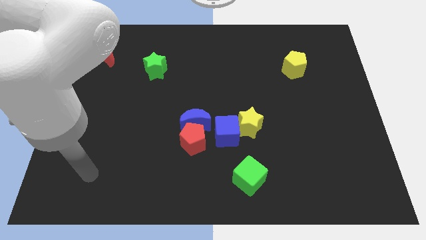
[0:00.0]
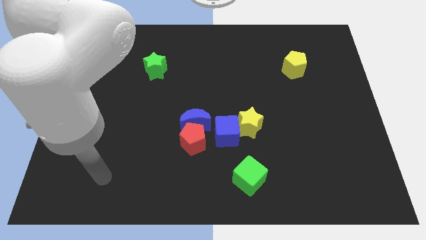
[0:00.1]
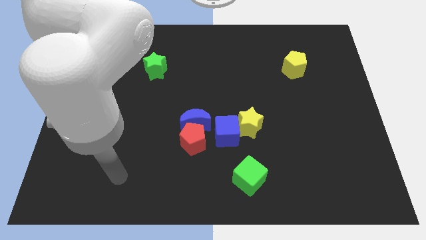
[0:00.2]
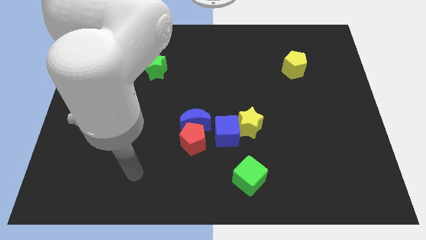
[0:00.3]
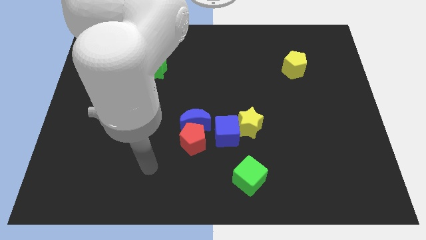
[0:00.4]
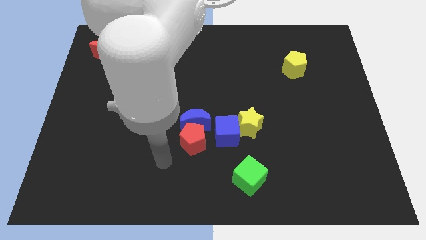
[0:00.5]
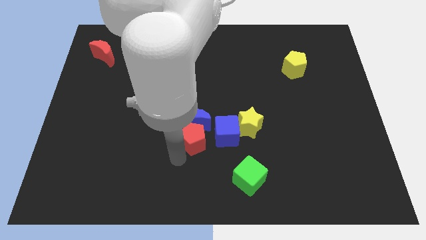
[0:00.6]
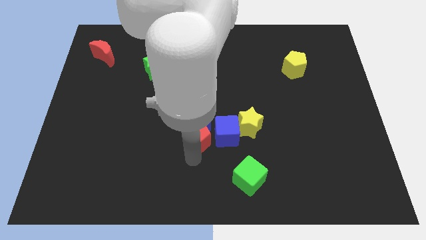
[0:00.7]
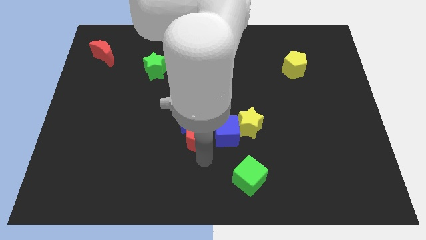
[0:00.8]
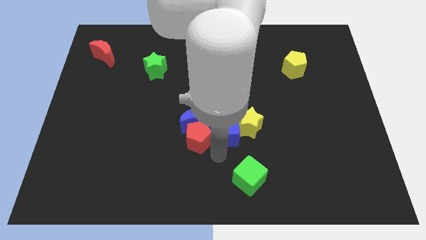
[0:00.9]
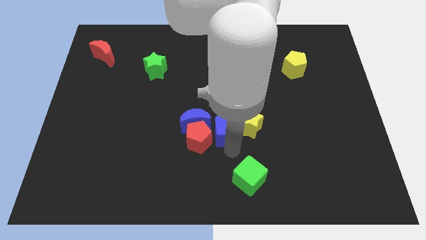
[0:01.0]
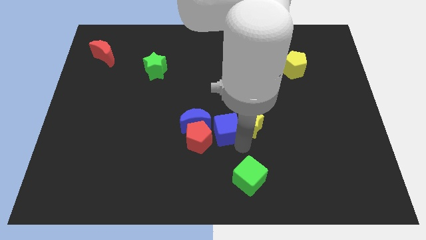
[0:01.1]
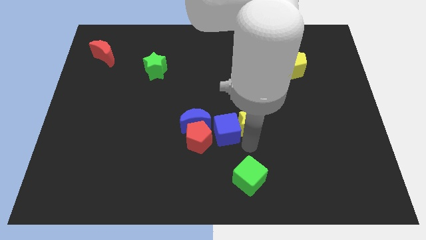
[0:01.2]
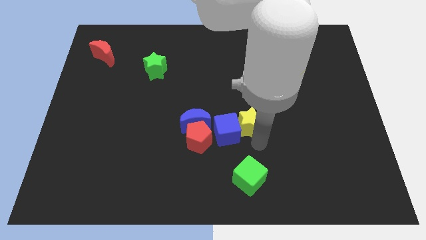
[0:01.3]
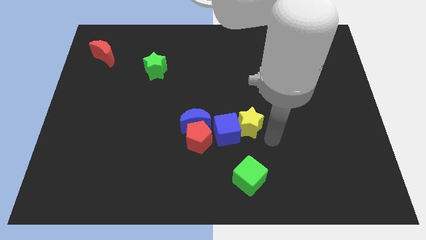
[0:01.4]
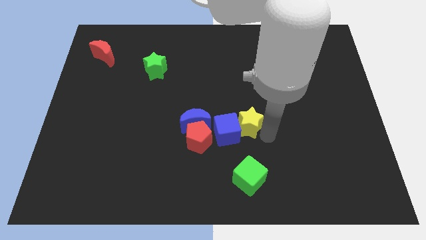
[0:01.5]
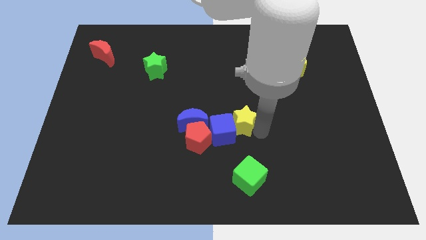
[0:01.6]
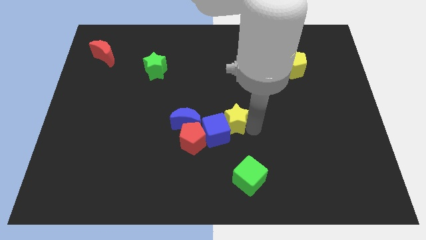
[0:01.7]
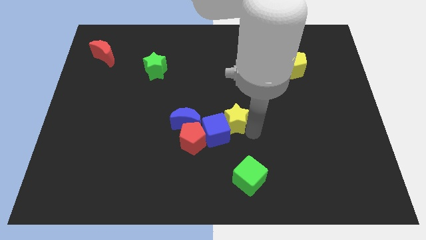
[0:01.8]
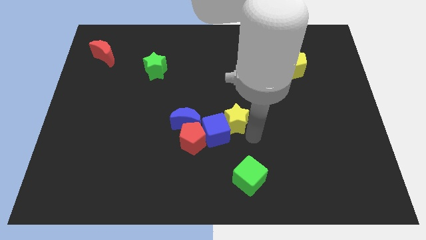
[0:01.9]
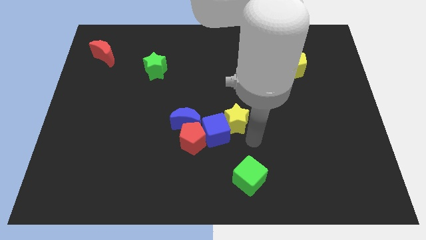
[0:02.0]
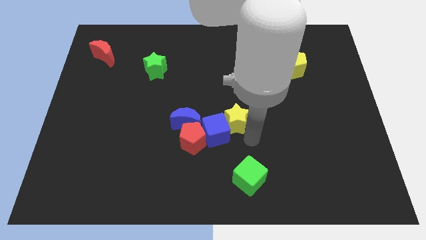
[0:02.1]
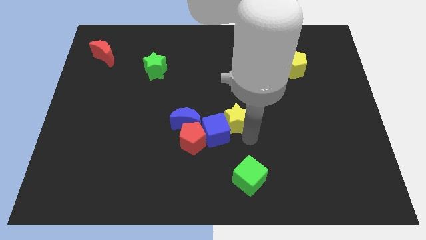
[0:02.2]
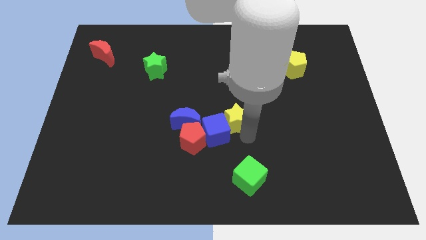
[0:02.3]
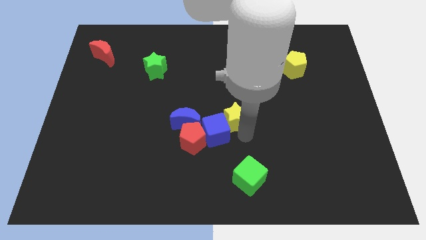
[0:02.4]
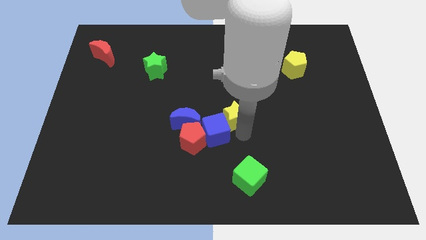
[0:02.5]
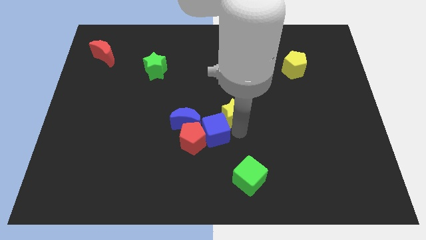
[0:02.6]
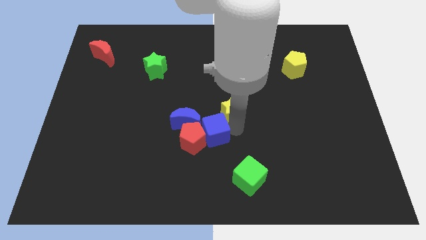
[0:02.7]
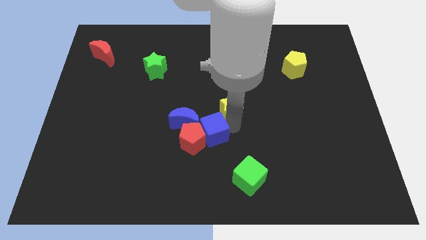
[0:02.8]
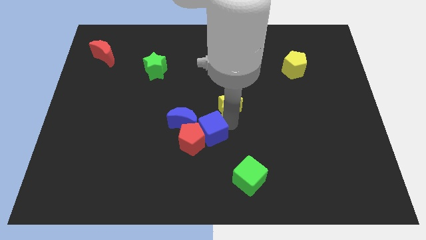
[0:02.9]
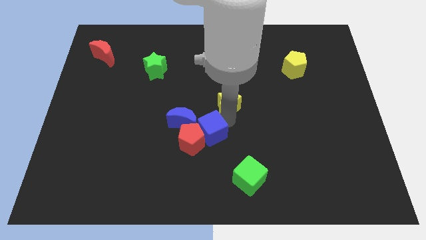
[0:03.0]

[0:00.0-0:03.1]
slide the yellow star upwards and left a little

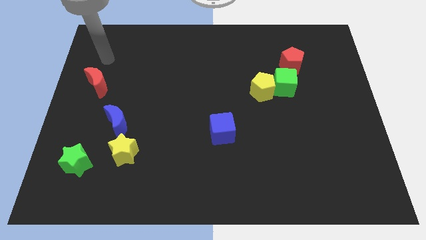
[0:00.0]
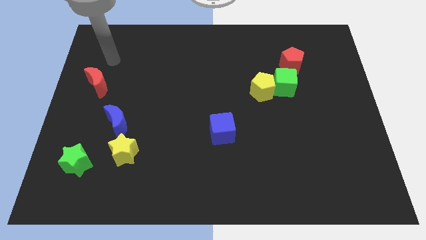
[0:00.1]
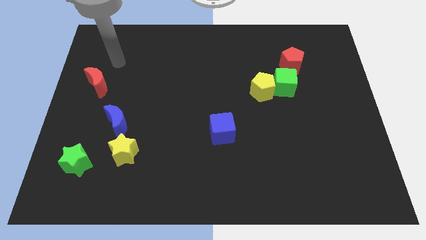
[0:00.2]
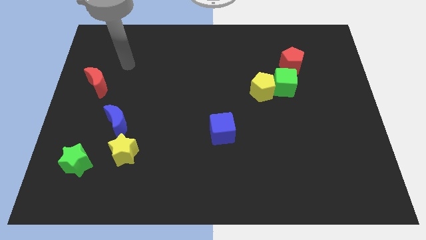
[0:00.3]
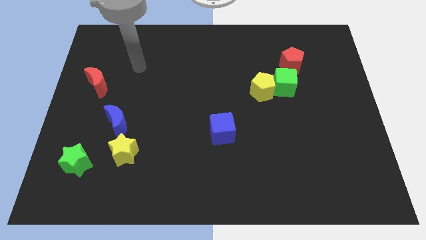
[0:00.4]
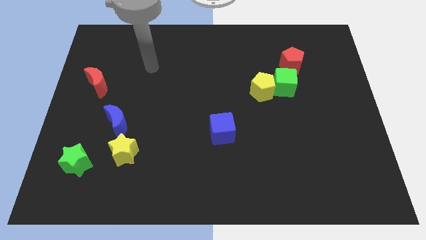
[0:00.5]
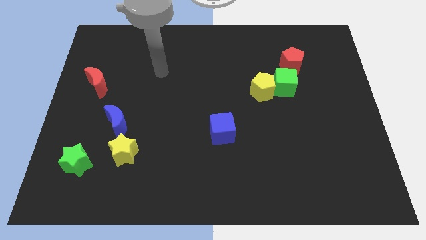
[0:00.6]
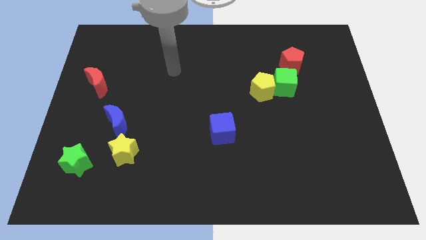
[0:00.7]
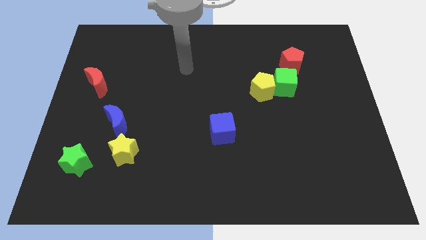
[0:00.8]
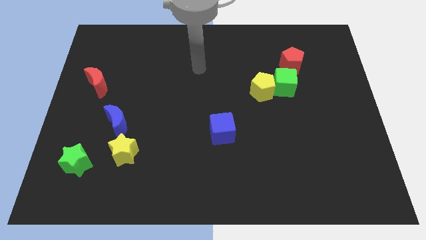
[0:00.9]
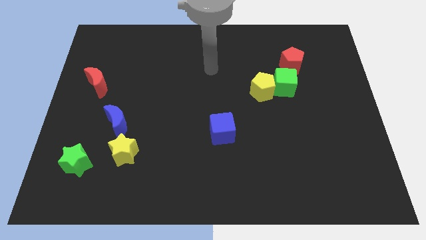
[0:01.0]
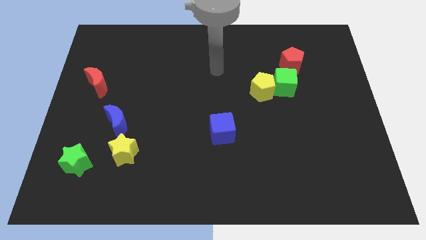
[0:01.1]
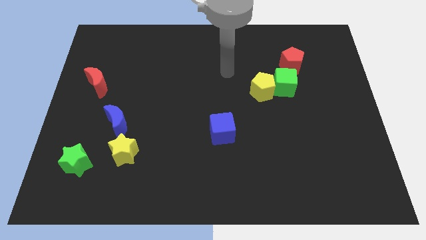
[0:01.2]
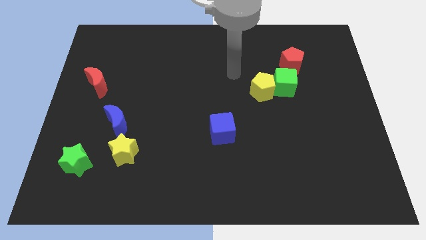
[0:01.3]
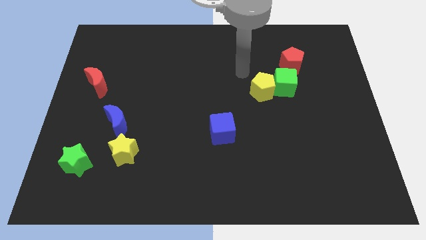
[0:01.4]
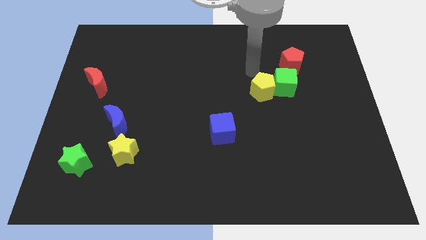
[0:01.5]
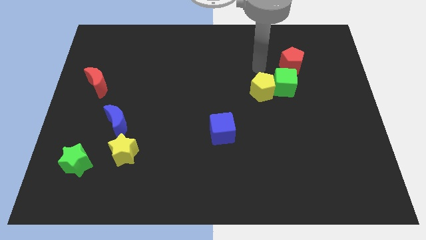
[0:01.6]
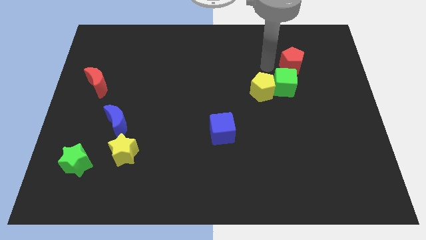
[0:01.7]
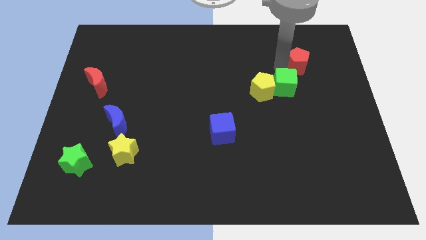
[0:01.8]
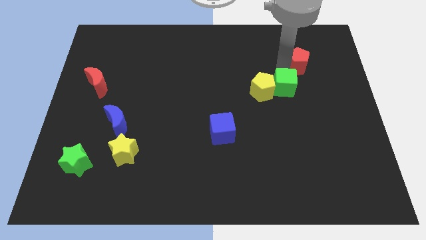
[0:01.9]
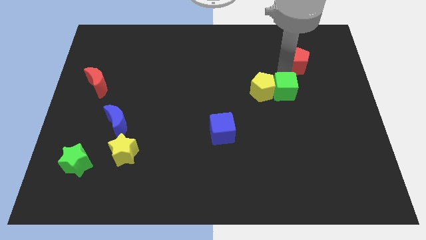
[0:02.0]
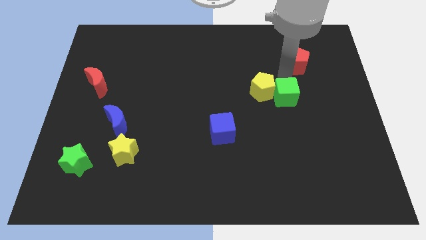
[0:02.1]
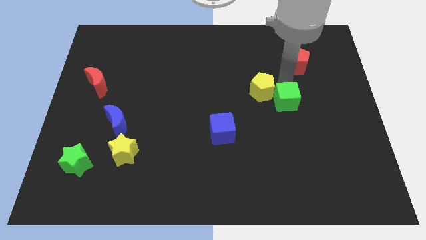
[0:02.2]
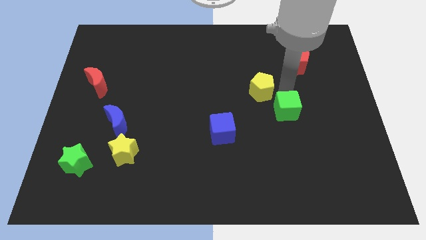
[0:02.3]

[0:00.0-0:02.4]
slightly slide the green cube down

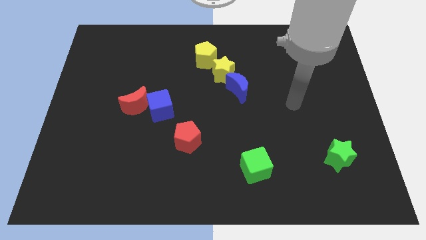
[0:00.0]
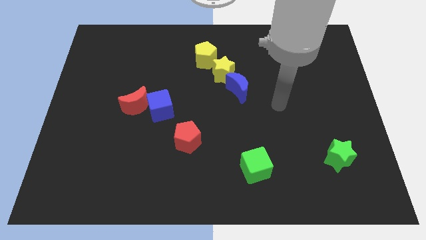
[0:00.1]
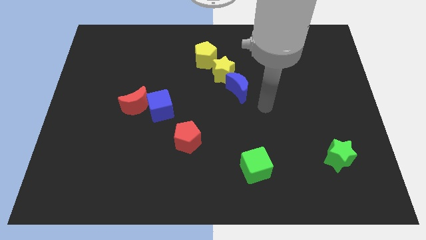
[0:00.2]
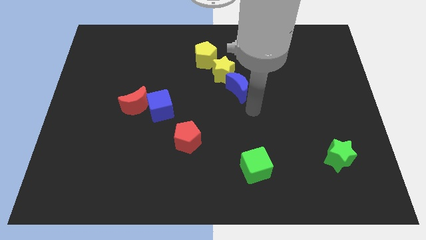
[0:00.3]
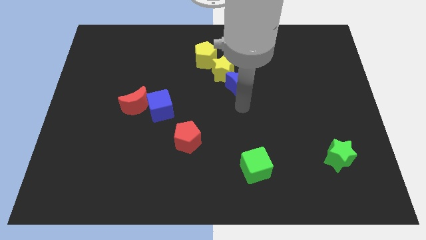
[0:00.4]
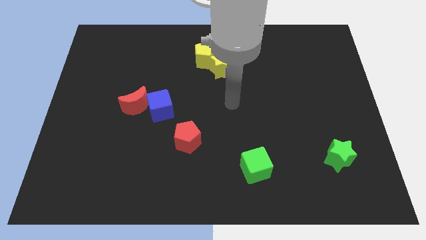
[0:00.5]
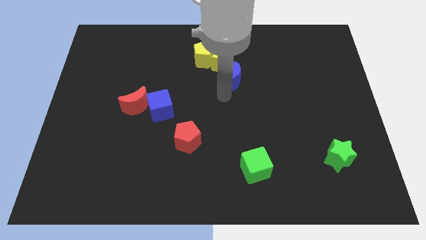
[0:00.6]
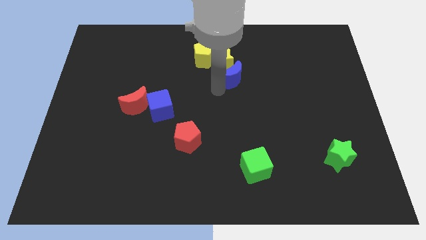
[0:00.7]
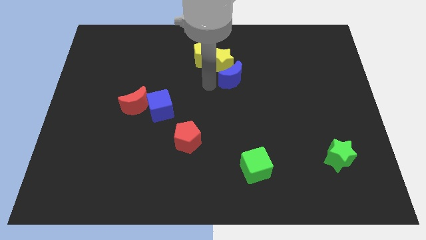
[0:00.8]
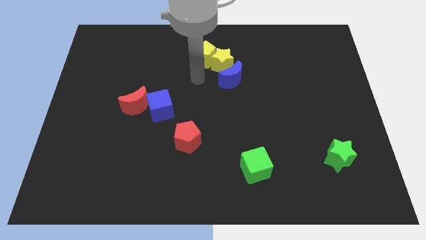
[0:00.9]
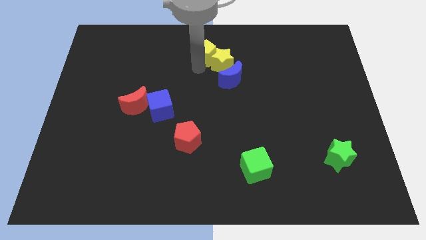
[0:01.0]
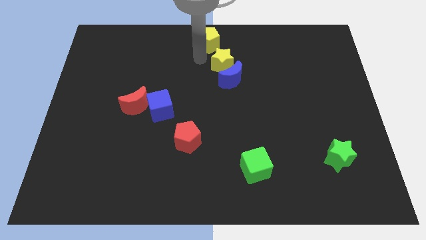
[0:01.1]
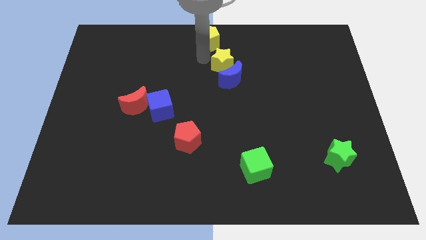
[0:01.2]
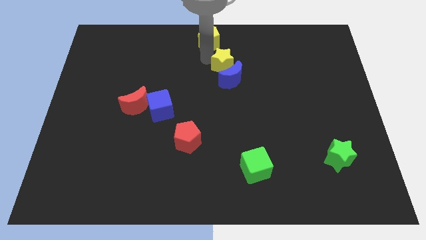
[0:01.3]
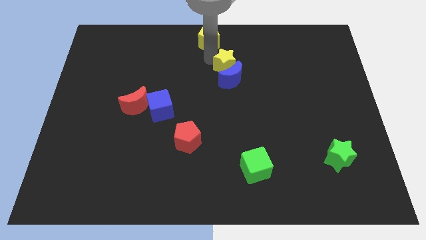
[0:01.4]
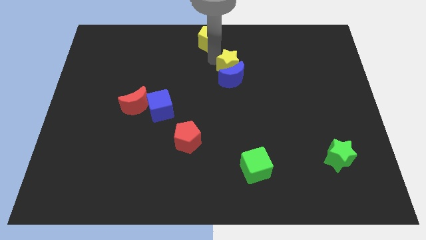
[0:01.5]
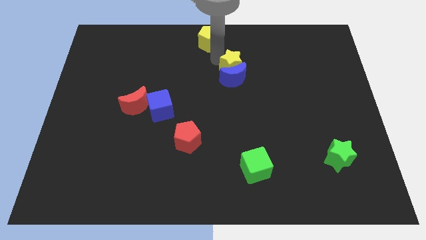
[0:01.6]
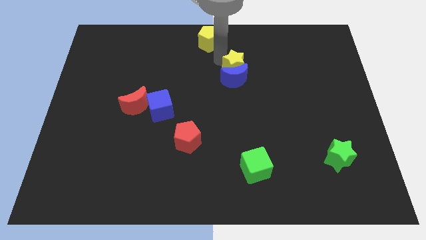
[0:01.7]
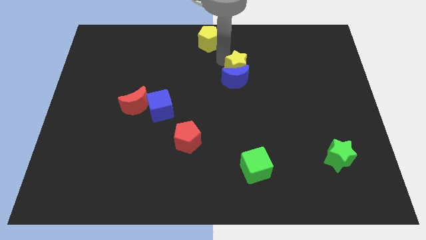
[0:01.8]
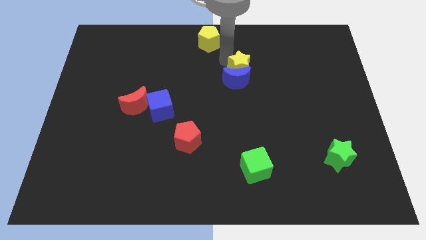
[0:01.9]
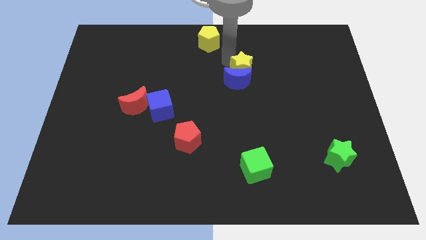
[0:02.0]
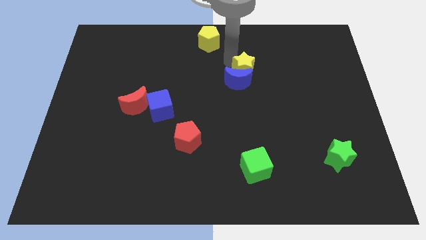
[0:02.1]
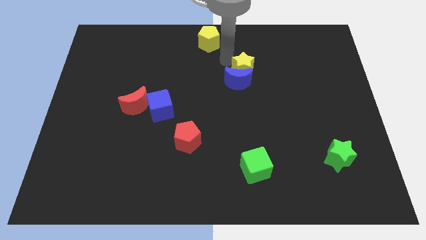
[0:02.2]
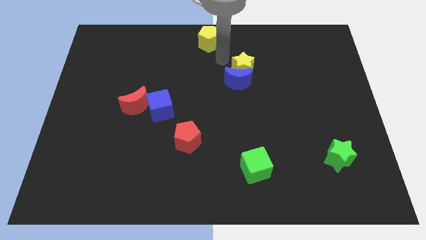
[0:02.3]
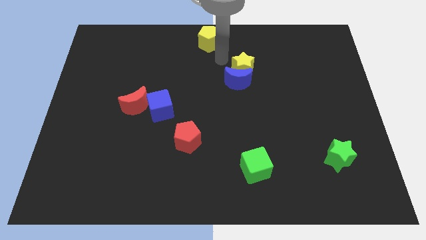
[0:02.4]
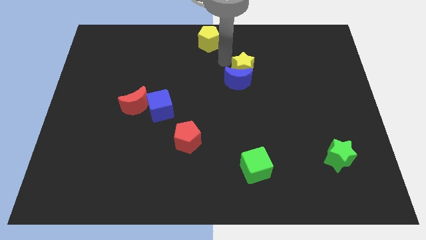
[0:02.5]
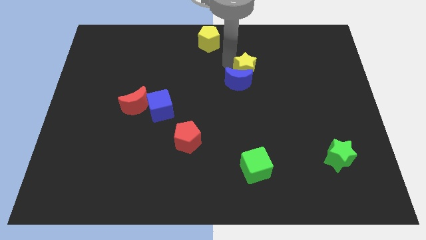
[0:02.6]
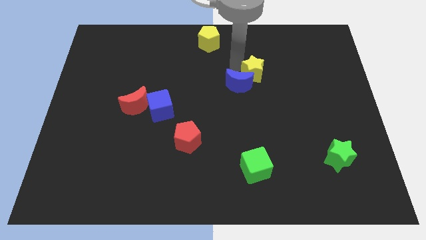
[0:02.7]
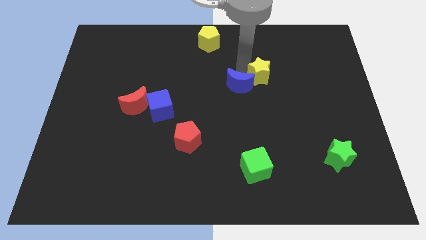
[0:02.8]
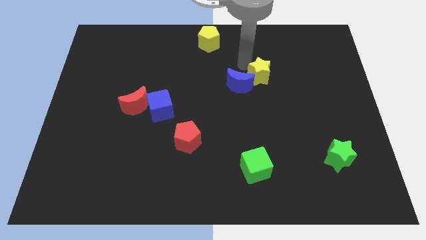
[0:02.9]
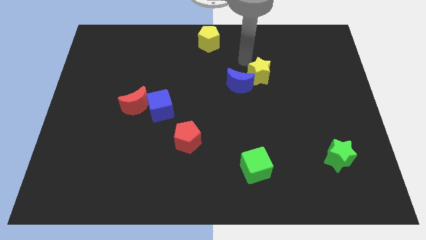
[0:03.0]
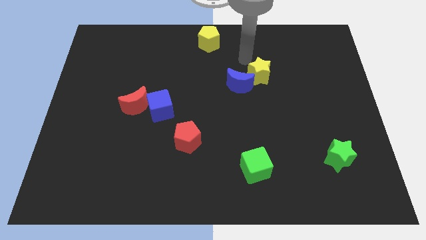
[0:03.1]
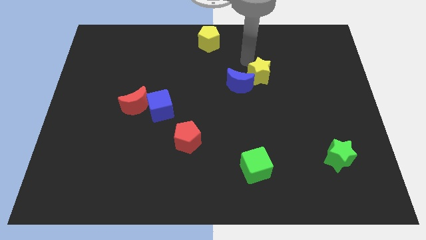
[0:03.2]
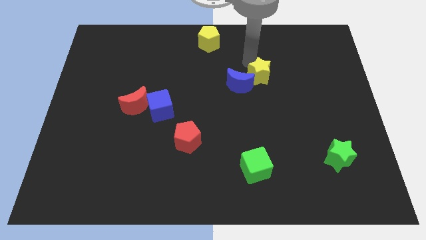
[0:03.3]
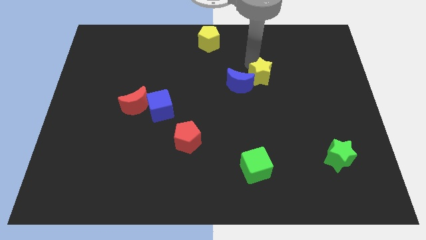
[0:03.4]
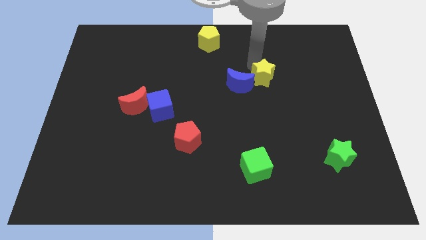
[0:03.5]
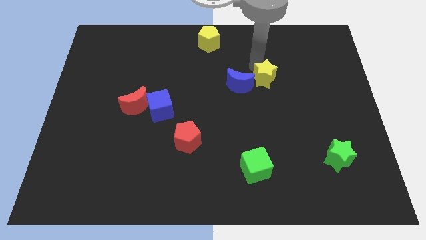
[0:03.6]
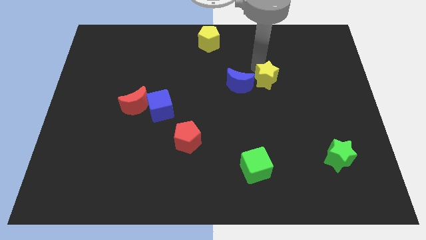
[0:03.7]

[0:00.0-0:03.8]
slide the yellow star a little bit down and right
